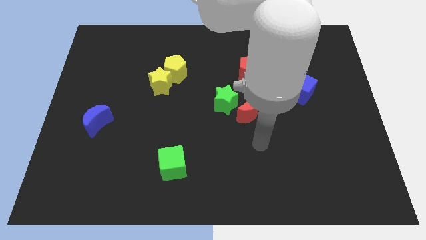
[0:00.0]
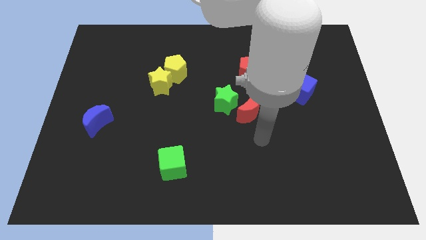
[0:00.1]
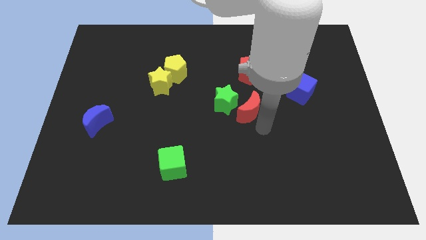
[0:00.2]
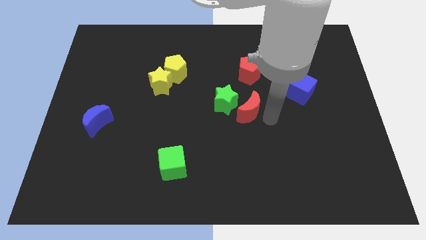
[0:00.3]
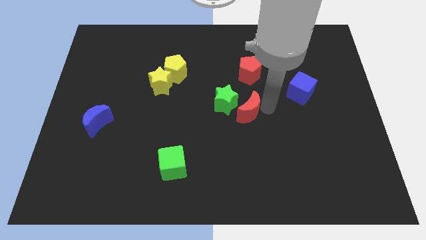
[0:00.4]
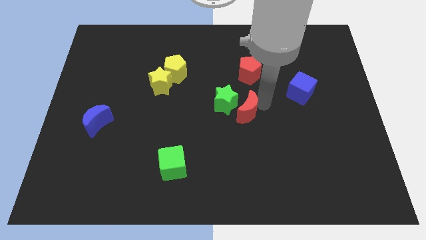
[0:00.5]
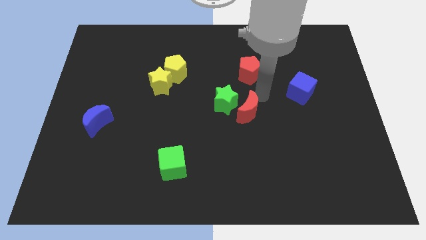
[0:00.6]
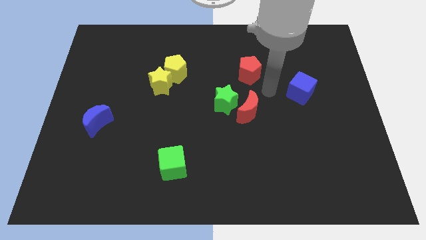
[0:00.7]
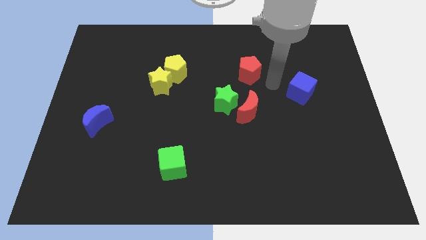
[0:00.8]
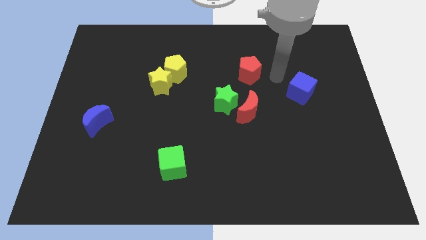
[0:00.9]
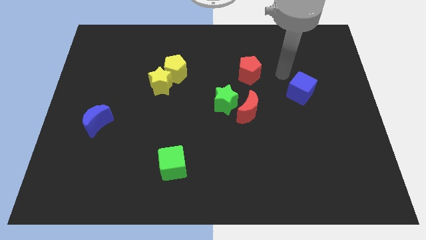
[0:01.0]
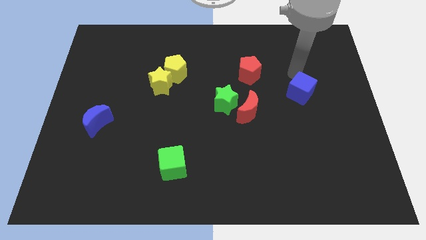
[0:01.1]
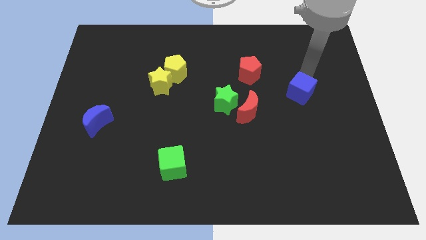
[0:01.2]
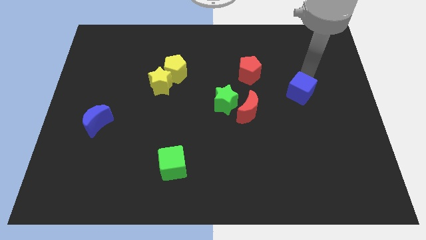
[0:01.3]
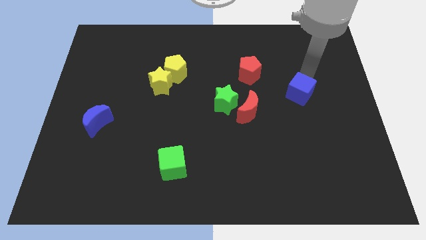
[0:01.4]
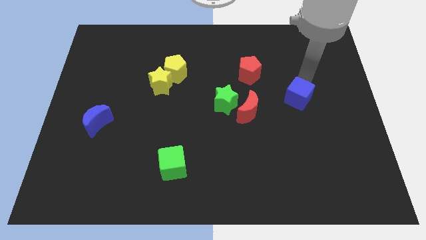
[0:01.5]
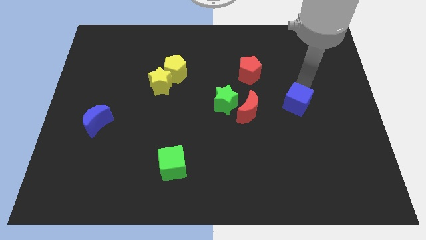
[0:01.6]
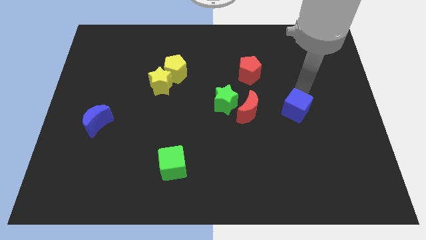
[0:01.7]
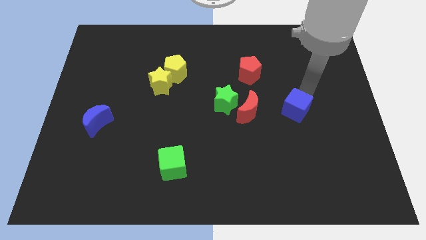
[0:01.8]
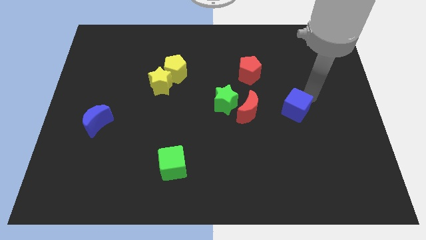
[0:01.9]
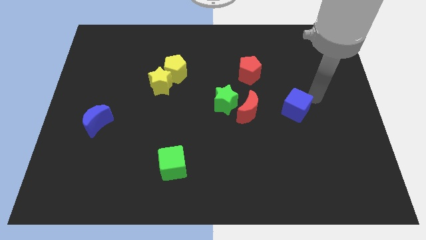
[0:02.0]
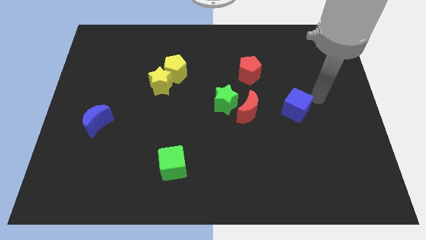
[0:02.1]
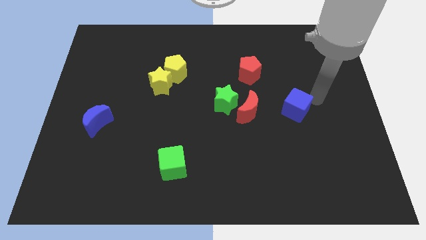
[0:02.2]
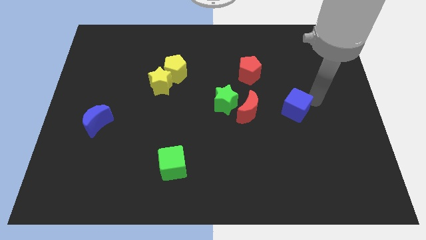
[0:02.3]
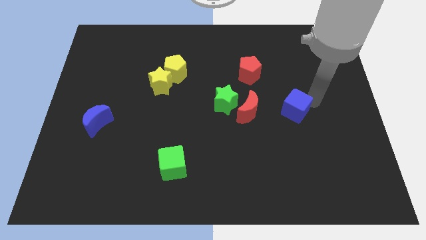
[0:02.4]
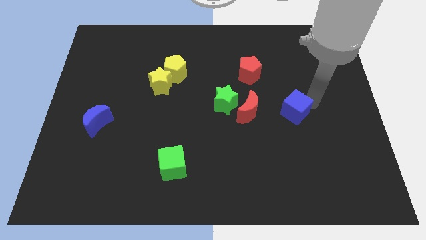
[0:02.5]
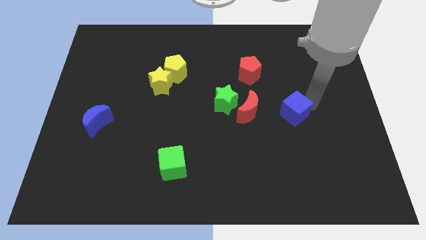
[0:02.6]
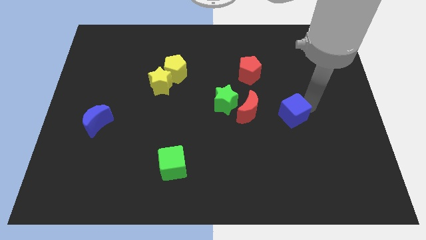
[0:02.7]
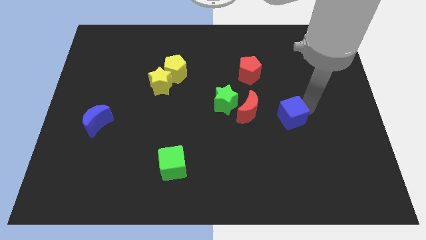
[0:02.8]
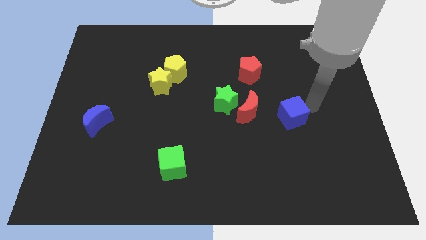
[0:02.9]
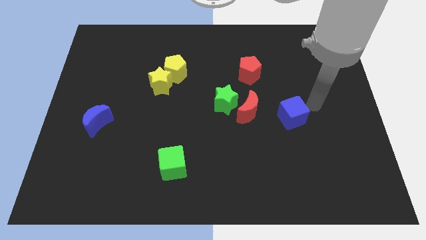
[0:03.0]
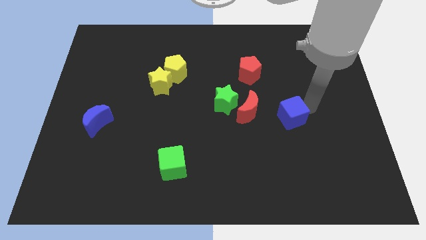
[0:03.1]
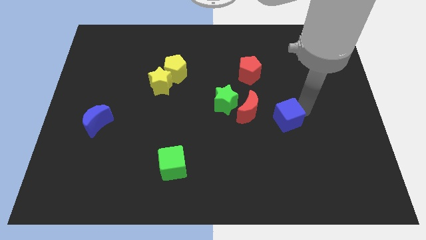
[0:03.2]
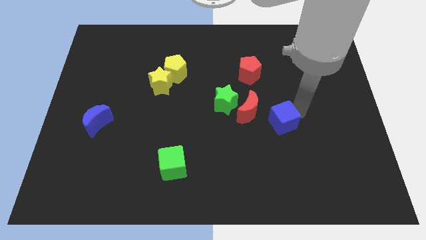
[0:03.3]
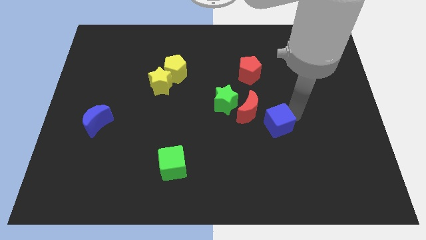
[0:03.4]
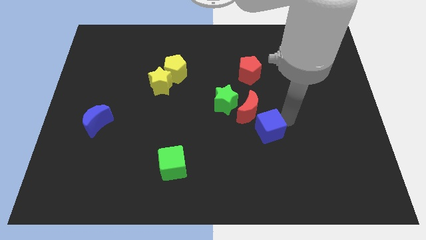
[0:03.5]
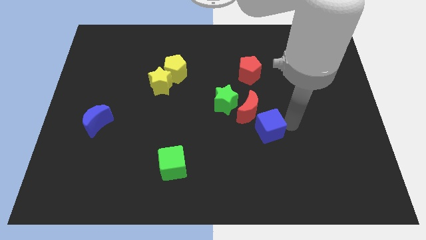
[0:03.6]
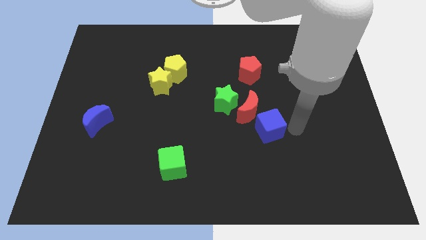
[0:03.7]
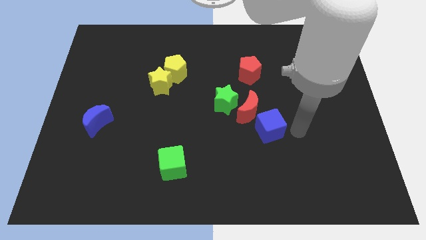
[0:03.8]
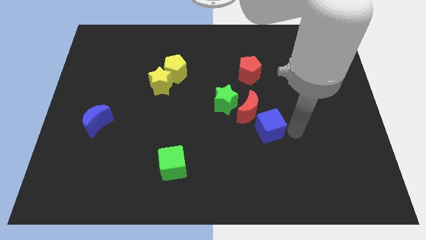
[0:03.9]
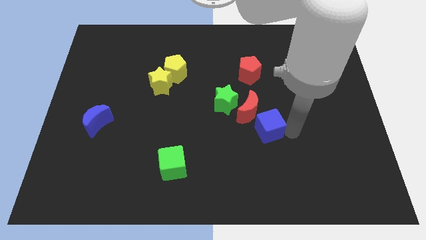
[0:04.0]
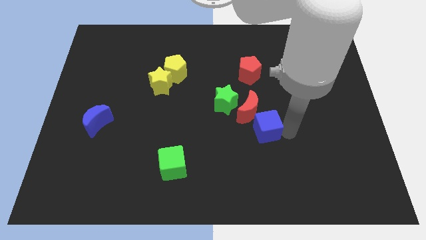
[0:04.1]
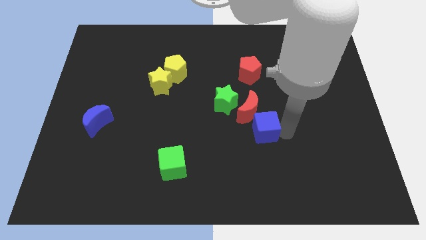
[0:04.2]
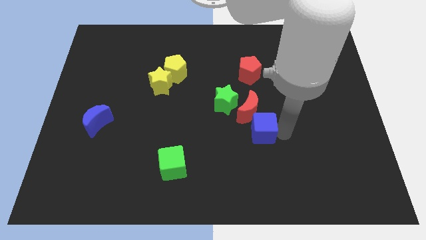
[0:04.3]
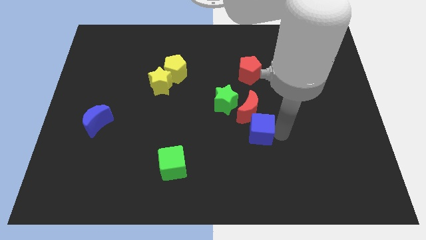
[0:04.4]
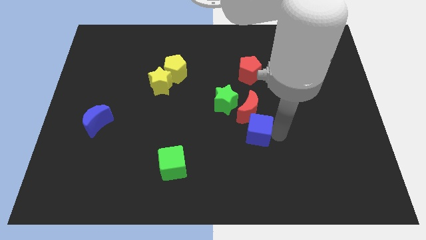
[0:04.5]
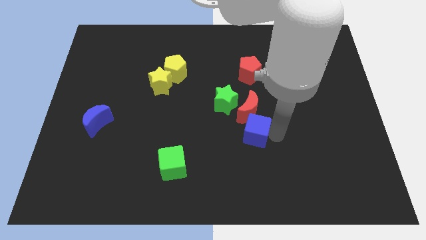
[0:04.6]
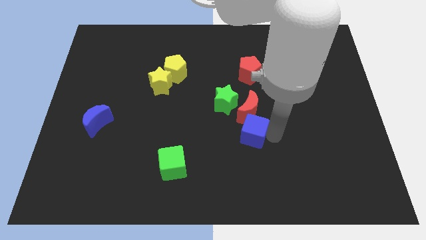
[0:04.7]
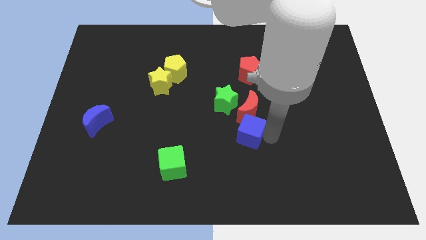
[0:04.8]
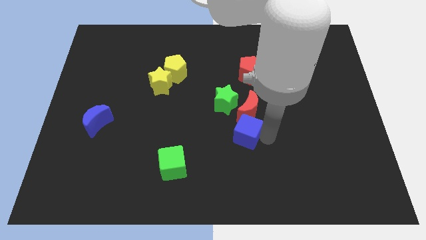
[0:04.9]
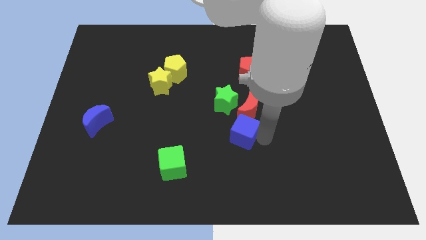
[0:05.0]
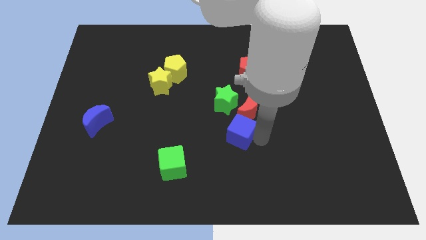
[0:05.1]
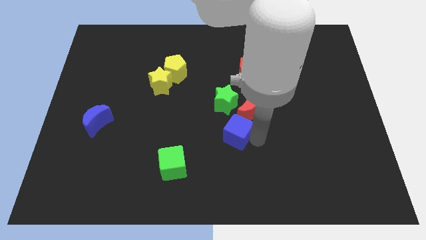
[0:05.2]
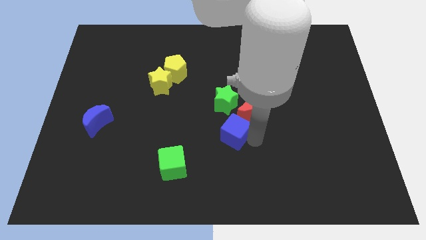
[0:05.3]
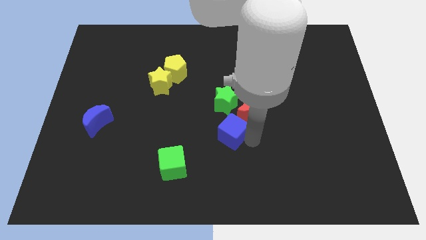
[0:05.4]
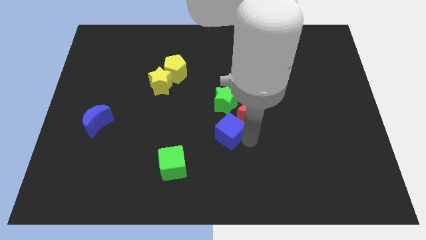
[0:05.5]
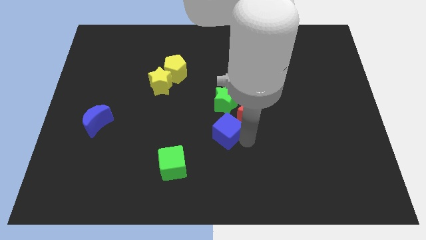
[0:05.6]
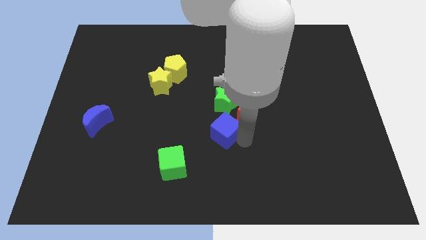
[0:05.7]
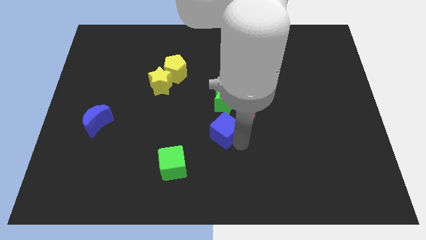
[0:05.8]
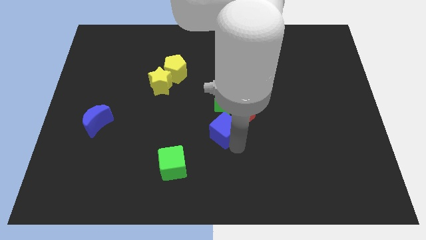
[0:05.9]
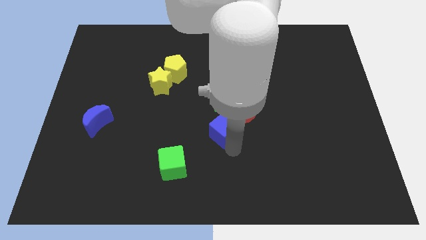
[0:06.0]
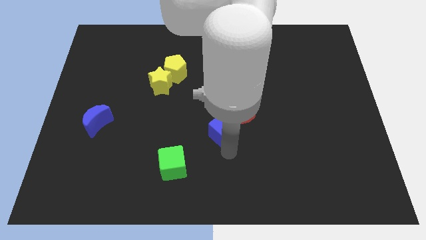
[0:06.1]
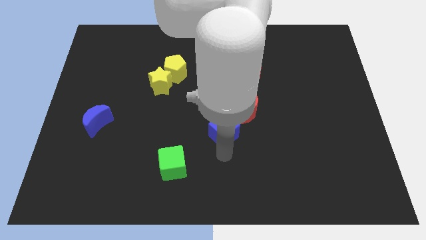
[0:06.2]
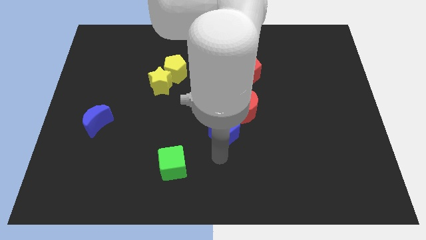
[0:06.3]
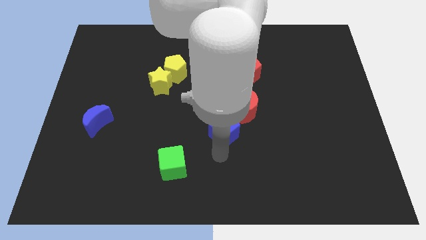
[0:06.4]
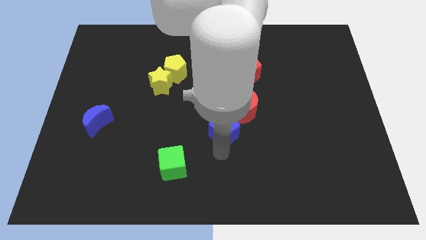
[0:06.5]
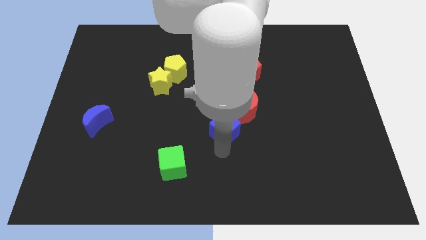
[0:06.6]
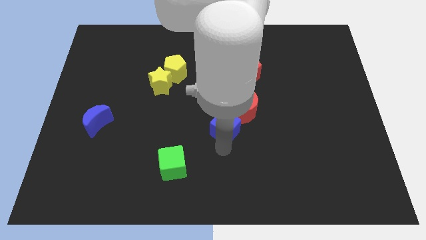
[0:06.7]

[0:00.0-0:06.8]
move the blue cube to the left side of the red moon

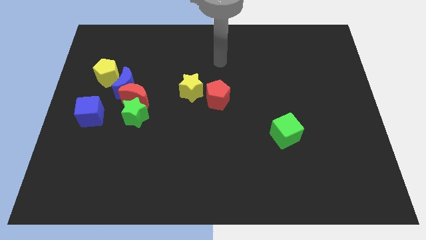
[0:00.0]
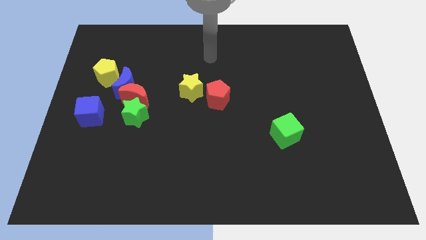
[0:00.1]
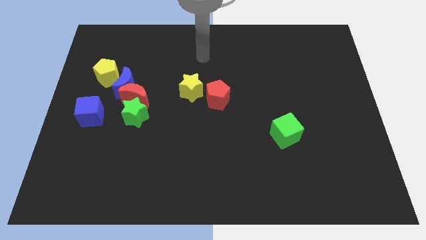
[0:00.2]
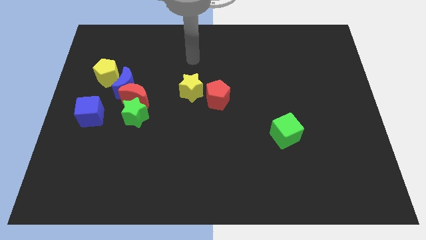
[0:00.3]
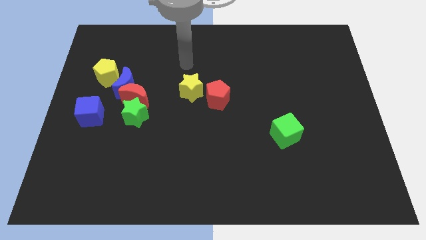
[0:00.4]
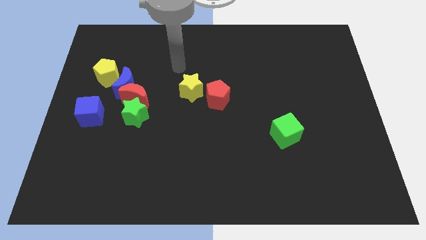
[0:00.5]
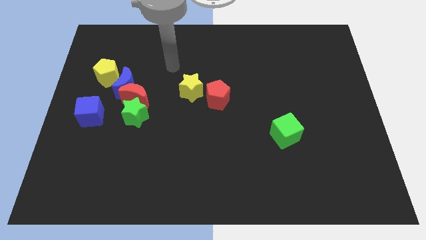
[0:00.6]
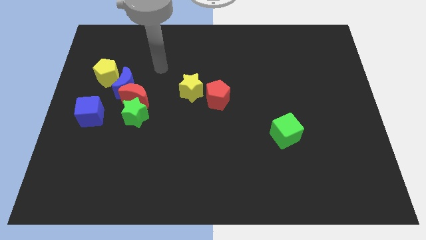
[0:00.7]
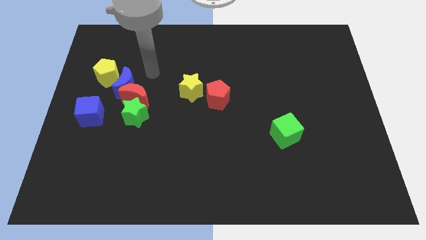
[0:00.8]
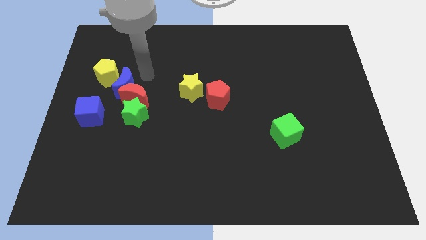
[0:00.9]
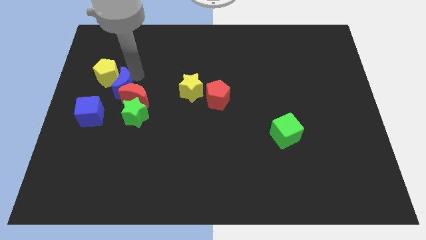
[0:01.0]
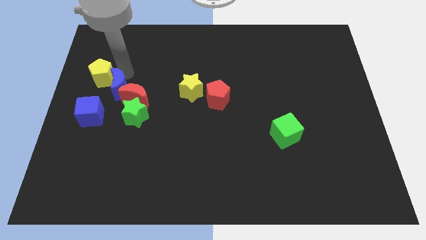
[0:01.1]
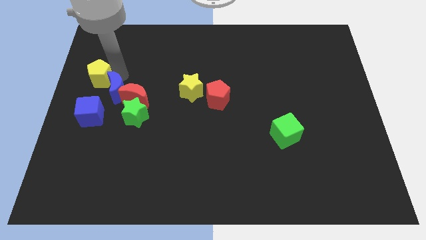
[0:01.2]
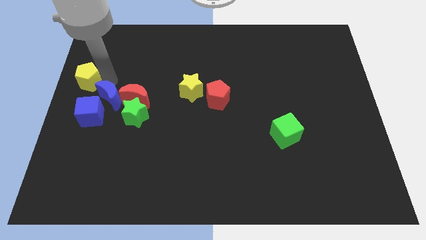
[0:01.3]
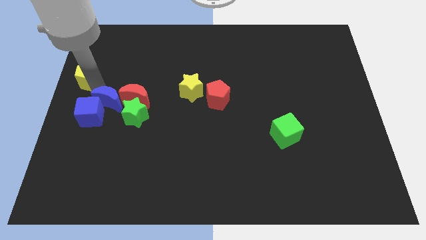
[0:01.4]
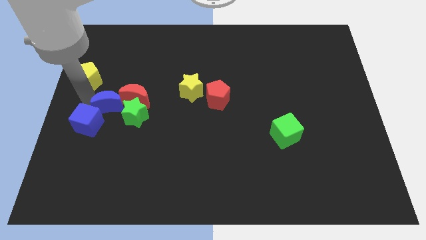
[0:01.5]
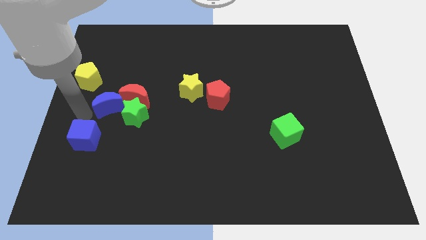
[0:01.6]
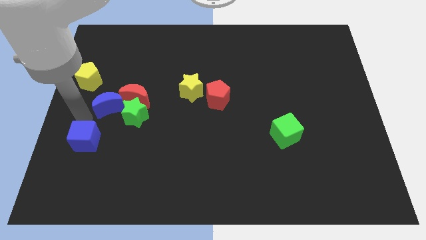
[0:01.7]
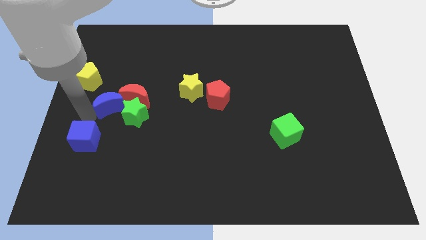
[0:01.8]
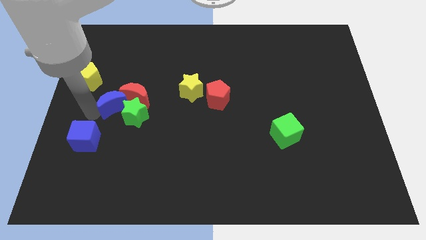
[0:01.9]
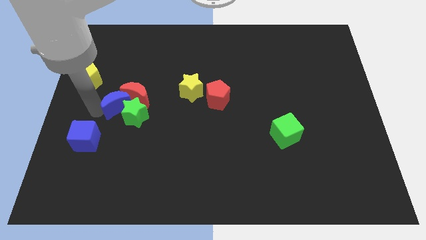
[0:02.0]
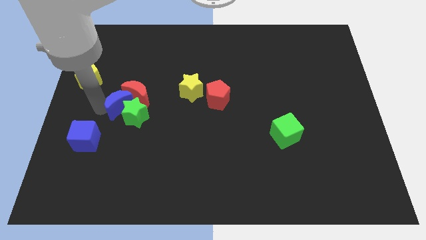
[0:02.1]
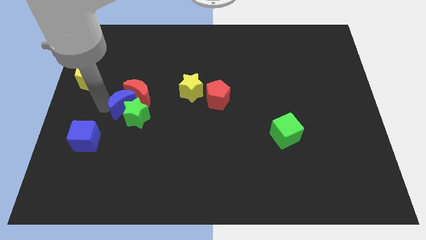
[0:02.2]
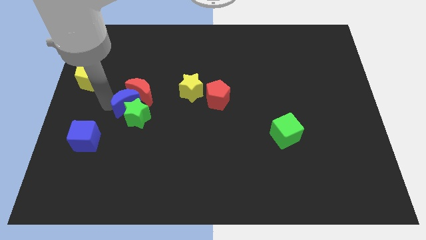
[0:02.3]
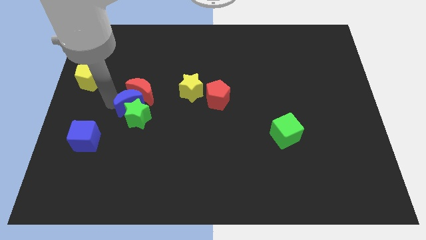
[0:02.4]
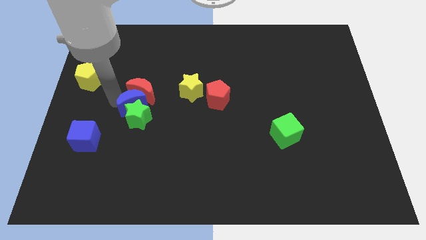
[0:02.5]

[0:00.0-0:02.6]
put the blue moon to the bottom right of the red moon
